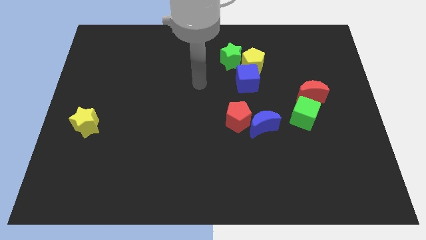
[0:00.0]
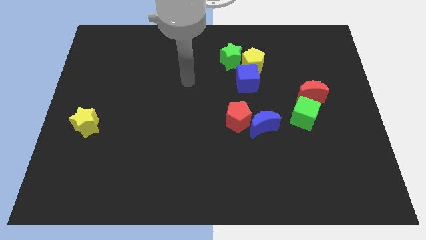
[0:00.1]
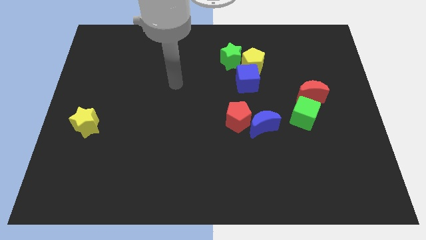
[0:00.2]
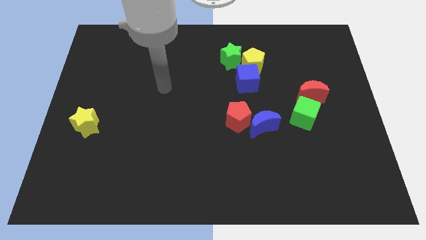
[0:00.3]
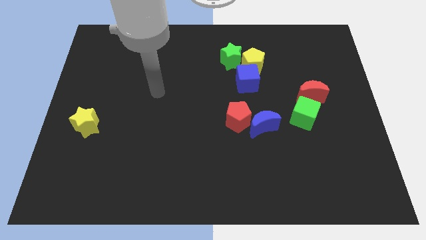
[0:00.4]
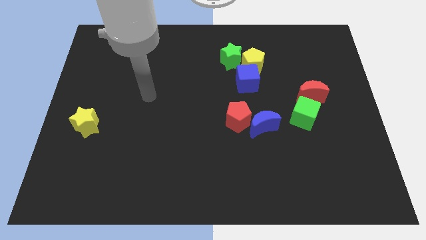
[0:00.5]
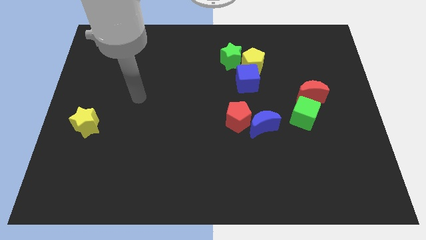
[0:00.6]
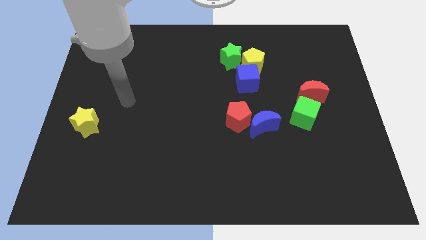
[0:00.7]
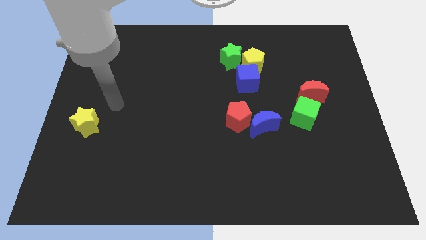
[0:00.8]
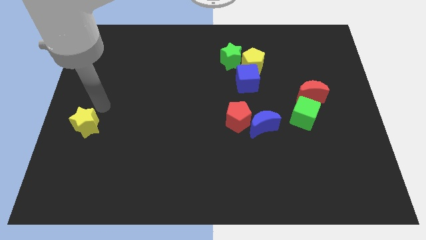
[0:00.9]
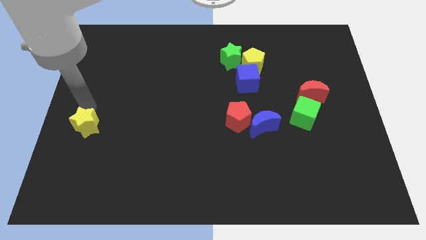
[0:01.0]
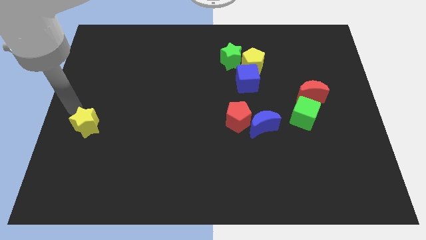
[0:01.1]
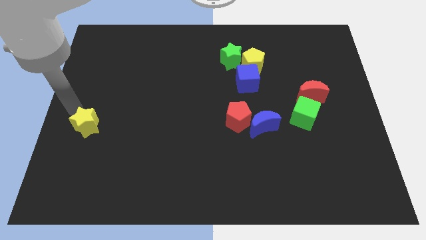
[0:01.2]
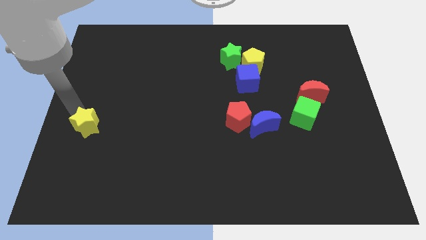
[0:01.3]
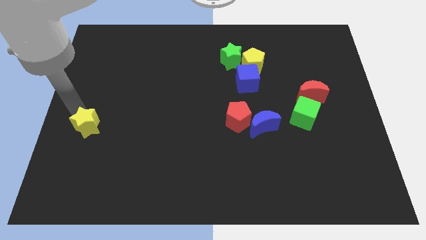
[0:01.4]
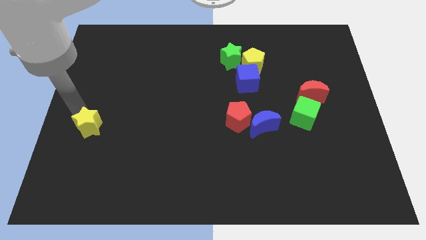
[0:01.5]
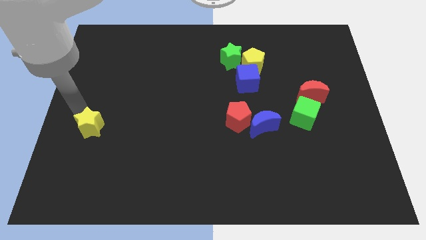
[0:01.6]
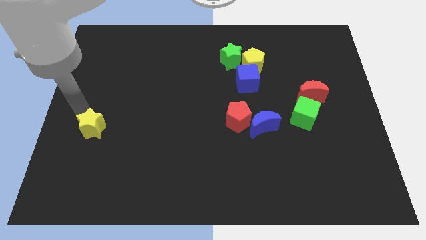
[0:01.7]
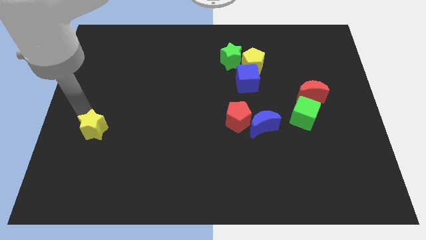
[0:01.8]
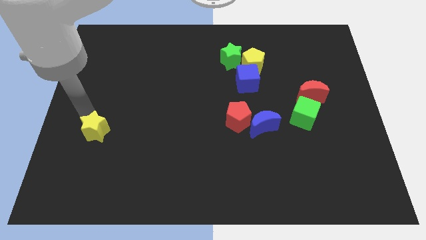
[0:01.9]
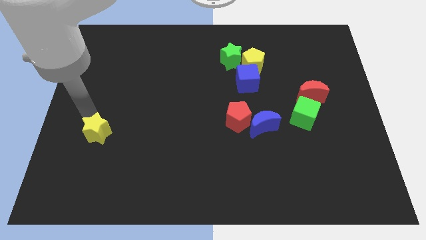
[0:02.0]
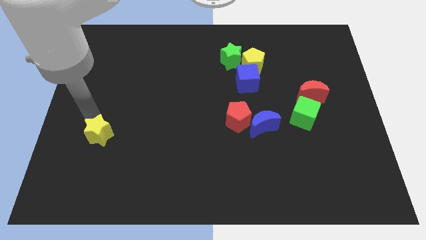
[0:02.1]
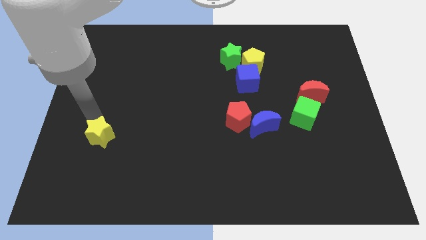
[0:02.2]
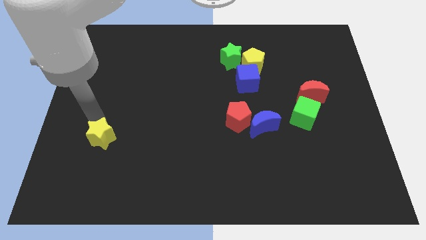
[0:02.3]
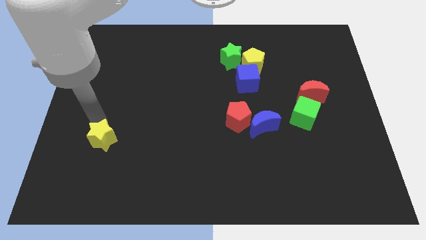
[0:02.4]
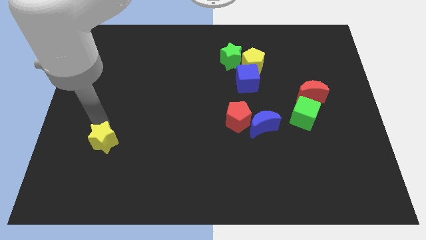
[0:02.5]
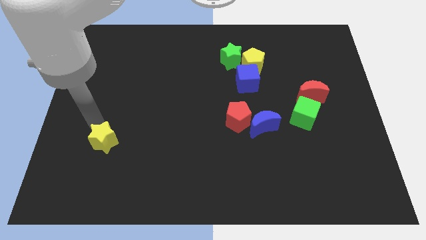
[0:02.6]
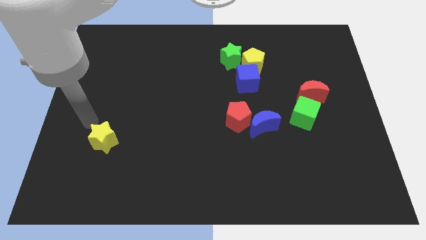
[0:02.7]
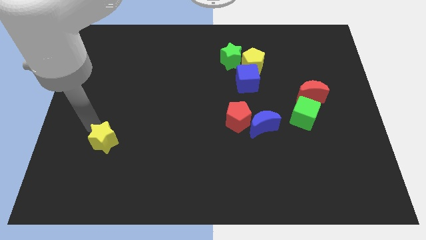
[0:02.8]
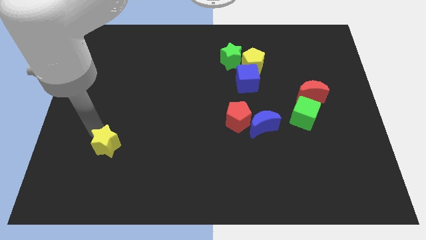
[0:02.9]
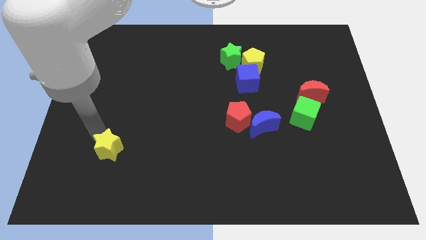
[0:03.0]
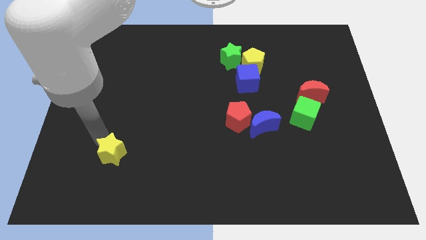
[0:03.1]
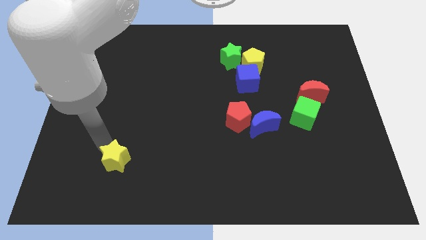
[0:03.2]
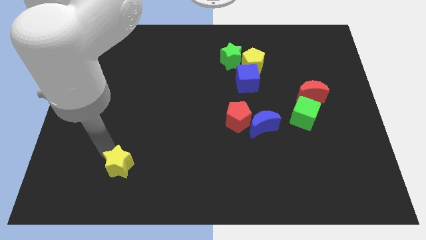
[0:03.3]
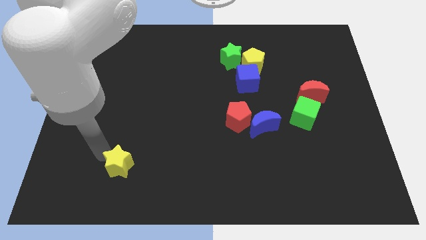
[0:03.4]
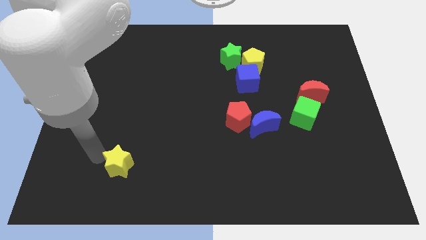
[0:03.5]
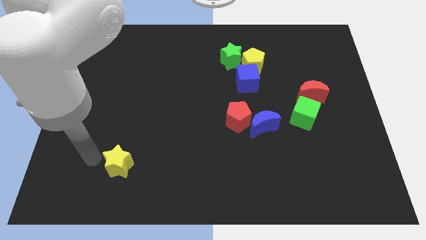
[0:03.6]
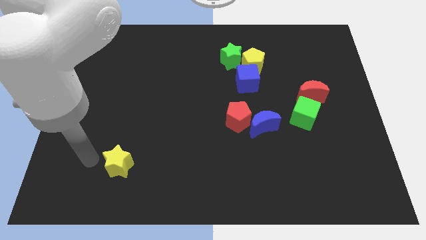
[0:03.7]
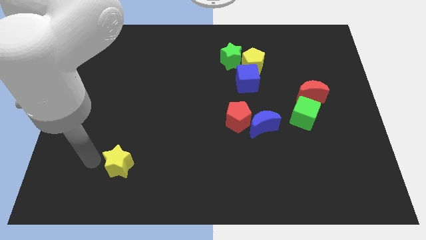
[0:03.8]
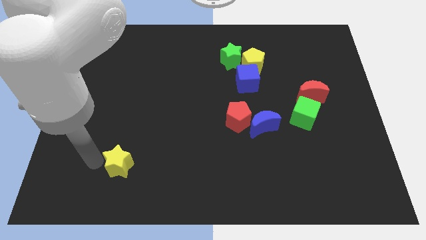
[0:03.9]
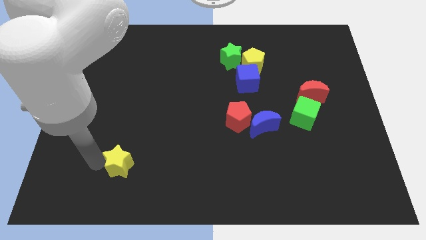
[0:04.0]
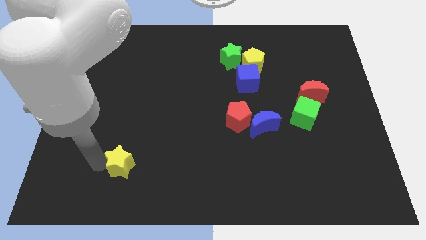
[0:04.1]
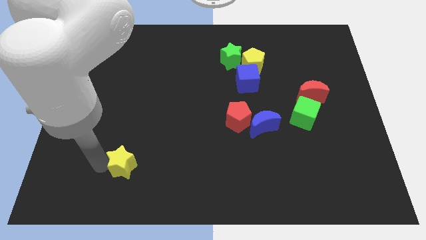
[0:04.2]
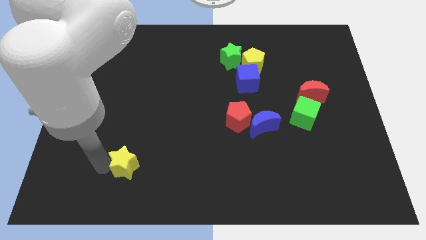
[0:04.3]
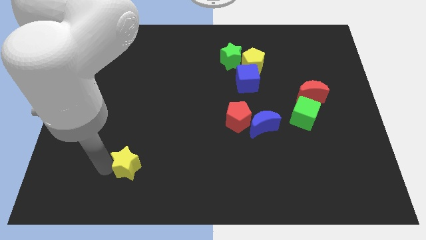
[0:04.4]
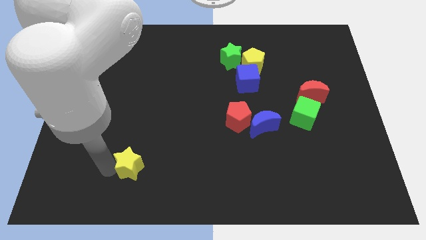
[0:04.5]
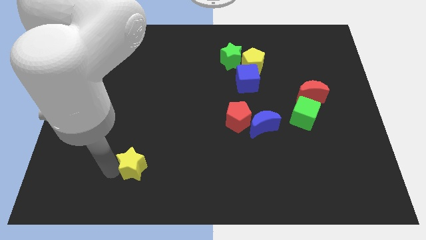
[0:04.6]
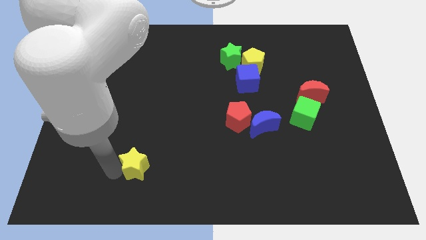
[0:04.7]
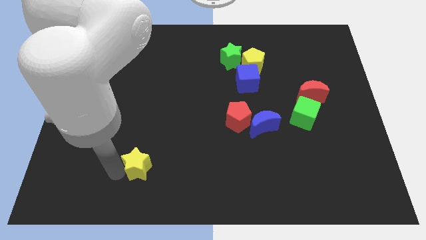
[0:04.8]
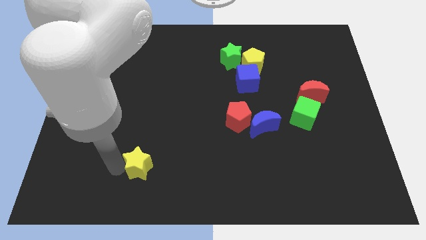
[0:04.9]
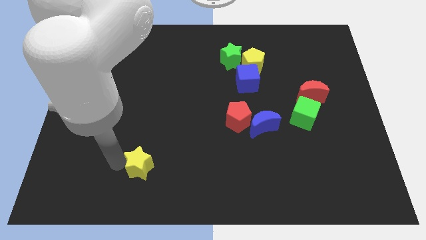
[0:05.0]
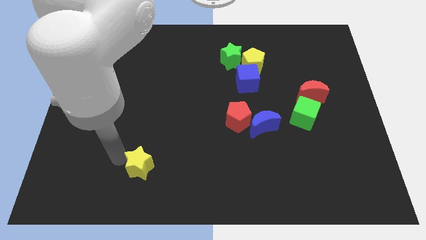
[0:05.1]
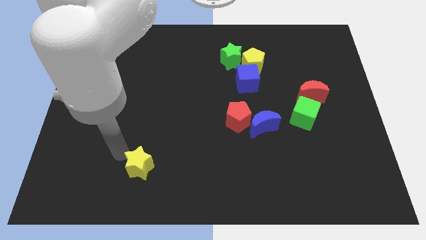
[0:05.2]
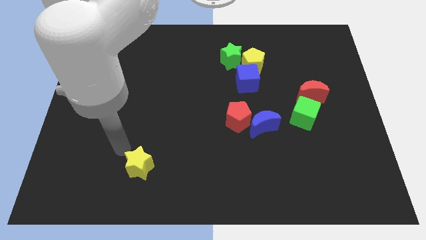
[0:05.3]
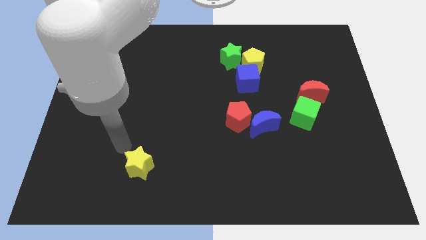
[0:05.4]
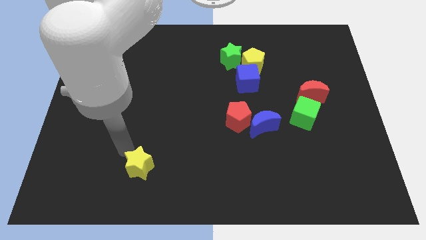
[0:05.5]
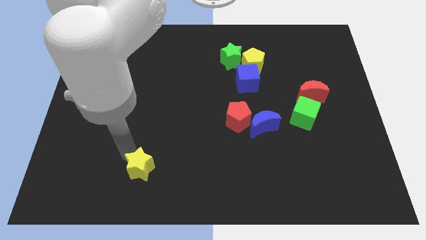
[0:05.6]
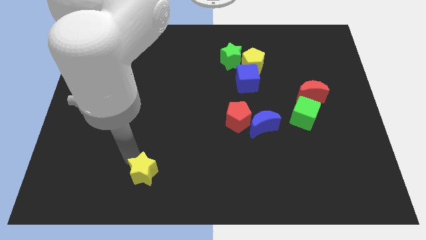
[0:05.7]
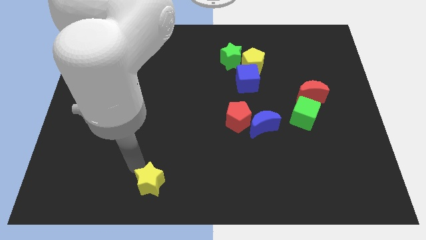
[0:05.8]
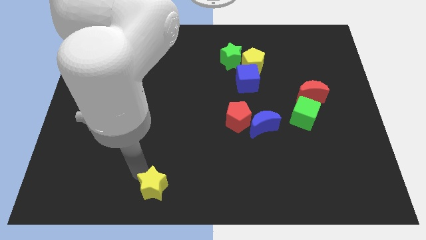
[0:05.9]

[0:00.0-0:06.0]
put the yellow star to the bottom

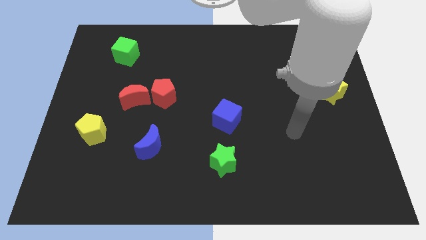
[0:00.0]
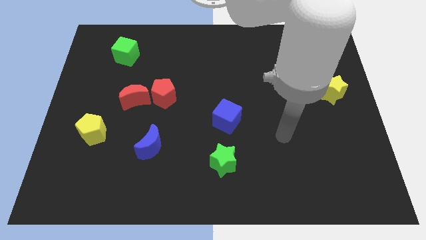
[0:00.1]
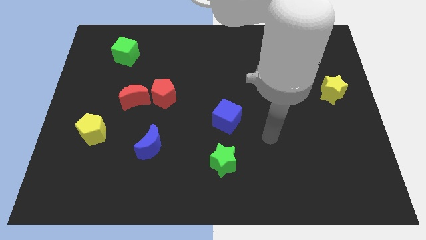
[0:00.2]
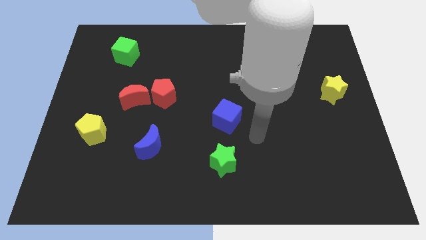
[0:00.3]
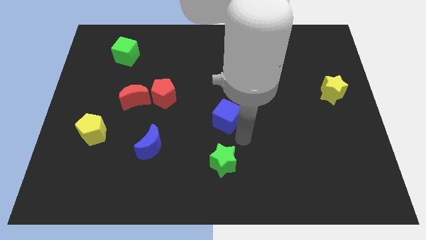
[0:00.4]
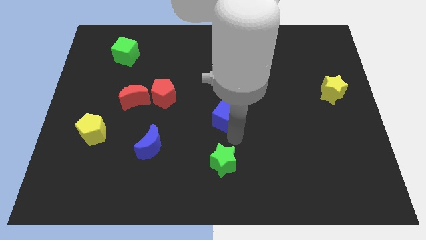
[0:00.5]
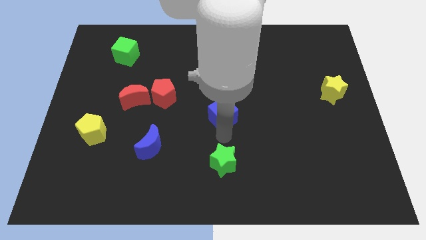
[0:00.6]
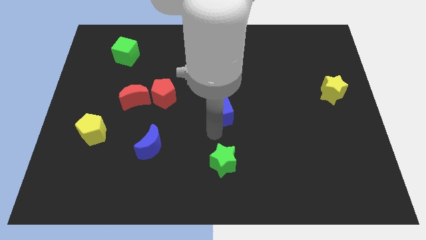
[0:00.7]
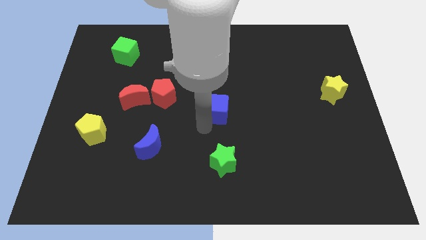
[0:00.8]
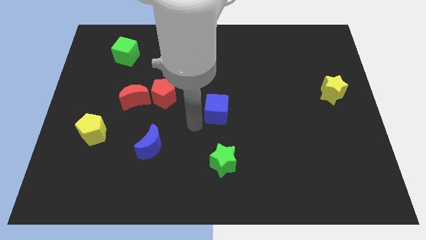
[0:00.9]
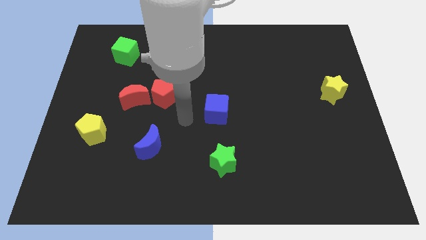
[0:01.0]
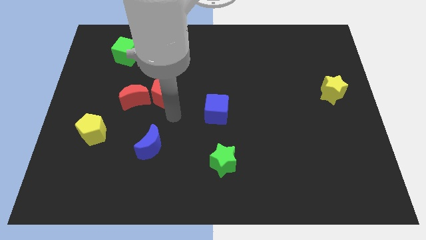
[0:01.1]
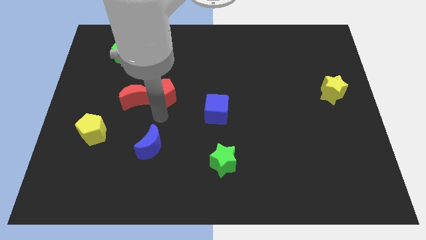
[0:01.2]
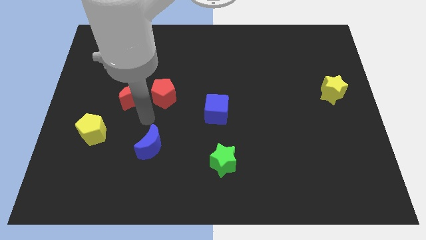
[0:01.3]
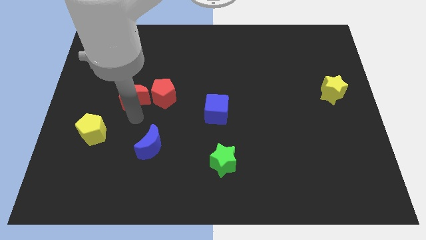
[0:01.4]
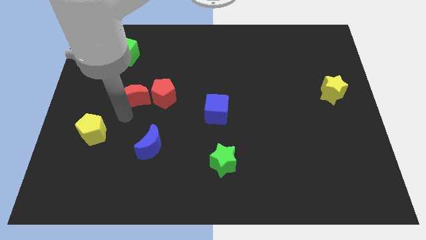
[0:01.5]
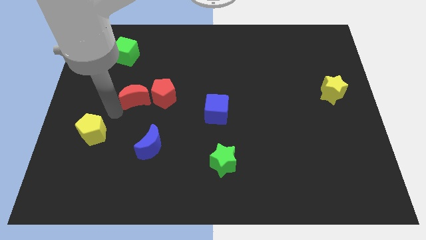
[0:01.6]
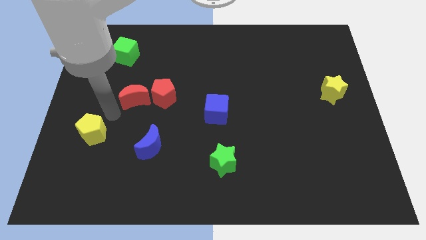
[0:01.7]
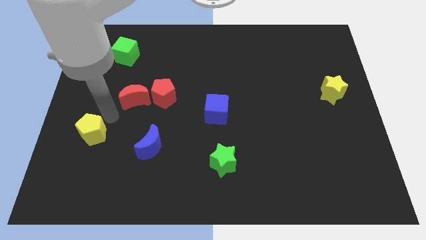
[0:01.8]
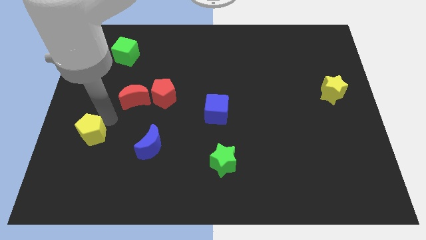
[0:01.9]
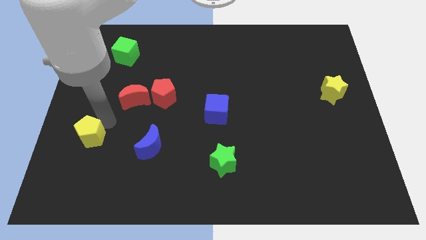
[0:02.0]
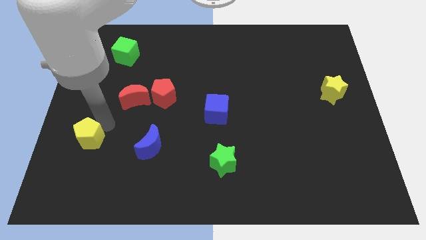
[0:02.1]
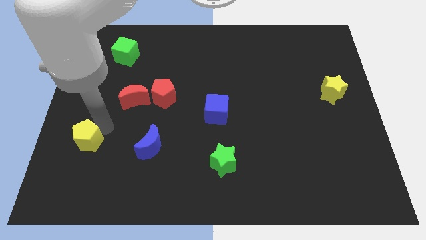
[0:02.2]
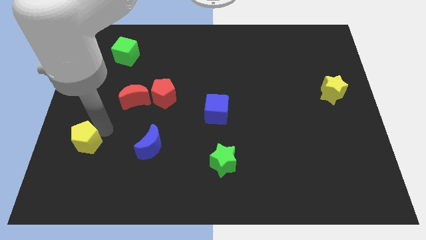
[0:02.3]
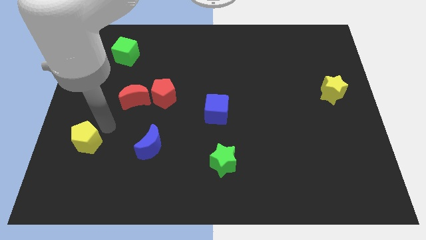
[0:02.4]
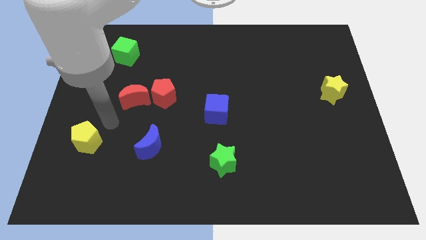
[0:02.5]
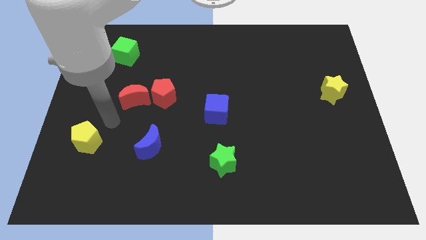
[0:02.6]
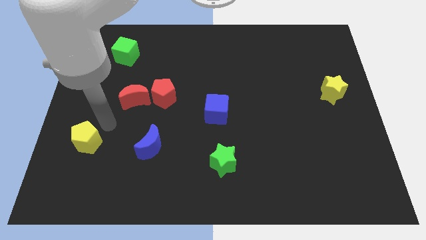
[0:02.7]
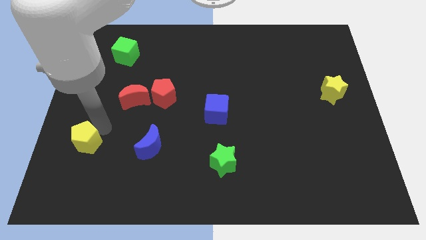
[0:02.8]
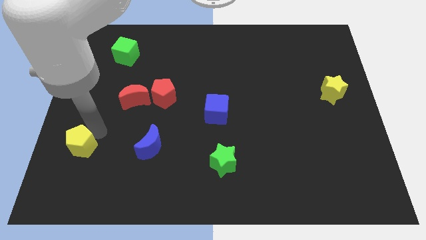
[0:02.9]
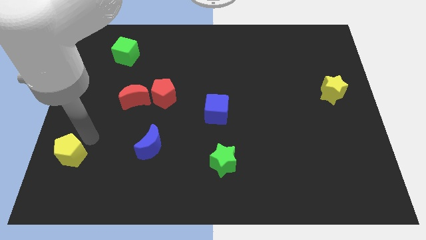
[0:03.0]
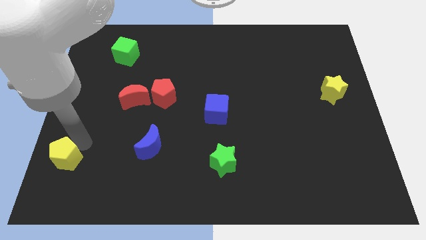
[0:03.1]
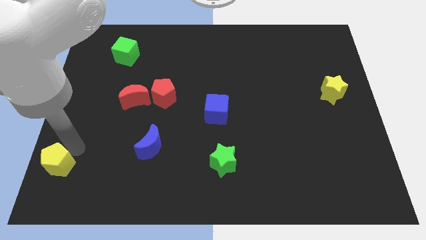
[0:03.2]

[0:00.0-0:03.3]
slide the yellow pentagon to the lower left corner
